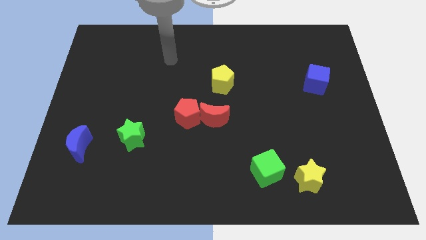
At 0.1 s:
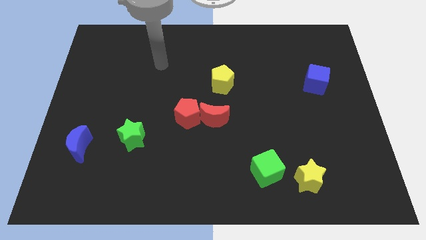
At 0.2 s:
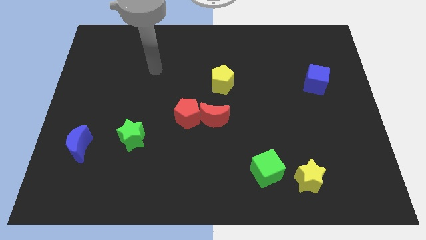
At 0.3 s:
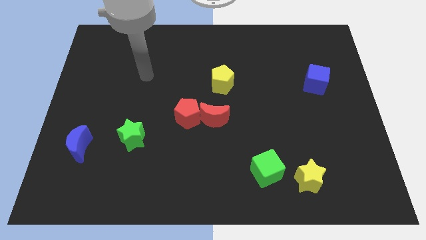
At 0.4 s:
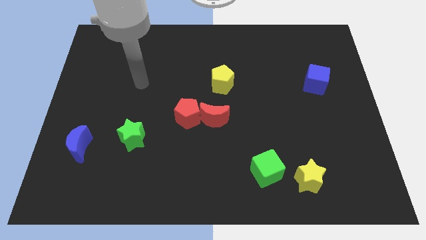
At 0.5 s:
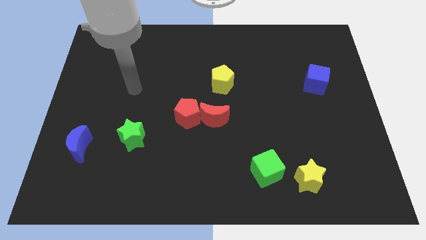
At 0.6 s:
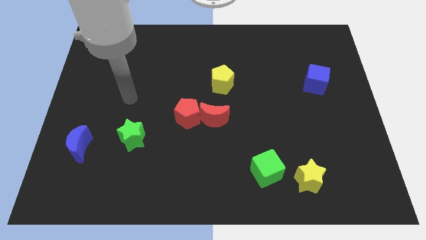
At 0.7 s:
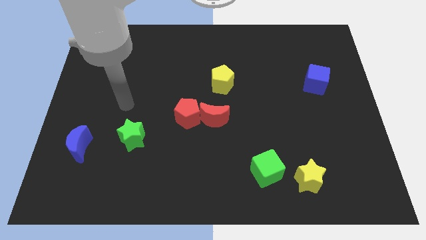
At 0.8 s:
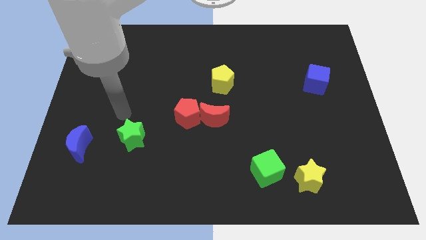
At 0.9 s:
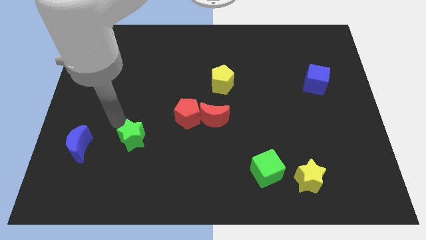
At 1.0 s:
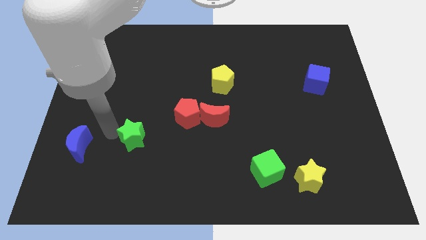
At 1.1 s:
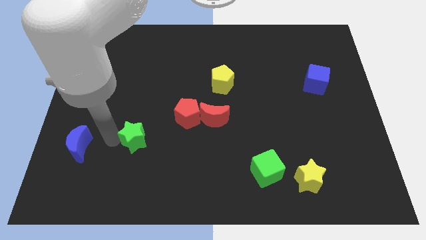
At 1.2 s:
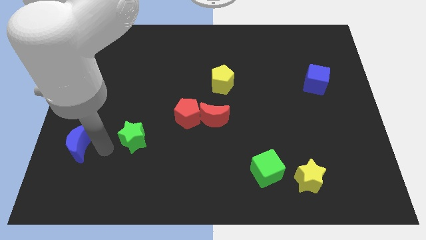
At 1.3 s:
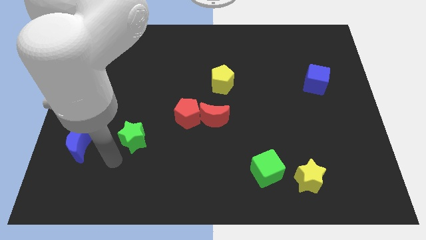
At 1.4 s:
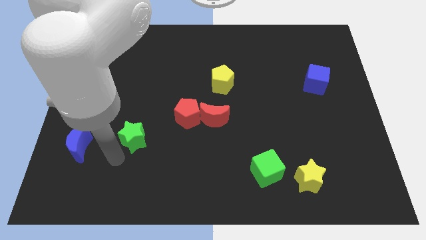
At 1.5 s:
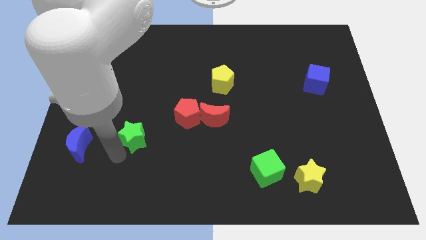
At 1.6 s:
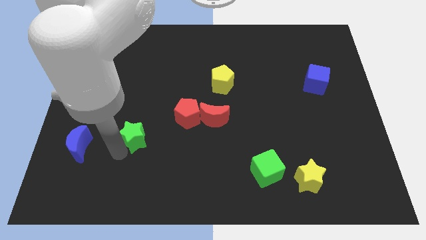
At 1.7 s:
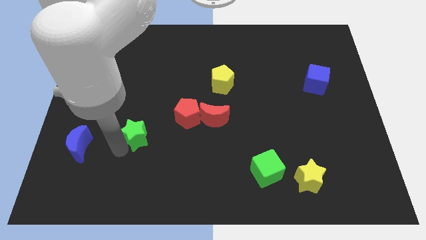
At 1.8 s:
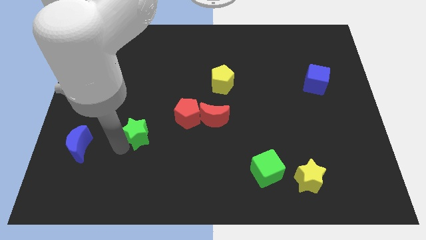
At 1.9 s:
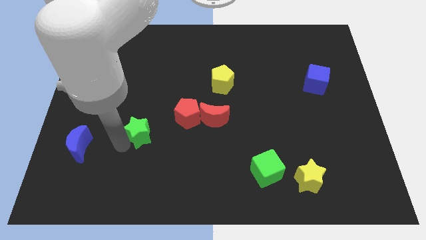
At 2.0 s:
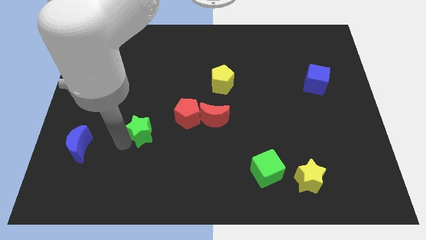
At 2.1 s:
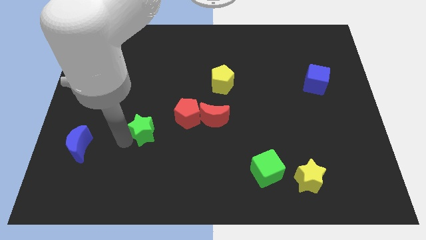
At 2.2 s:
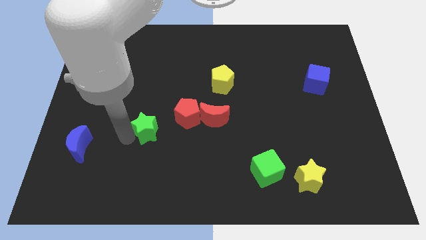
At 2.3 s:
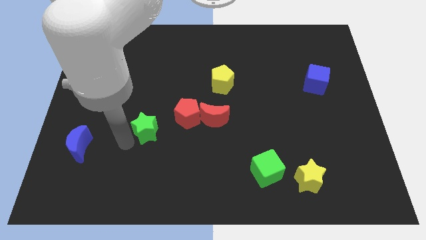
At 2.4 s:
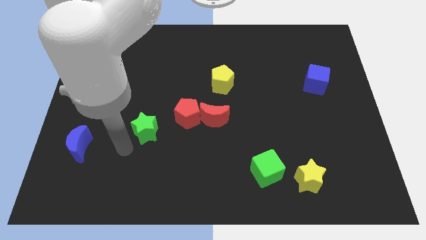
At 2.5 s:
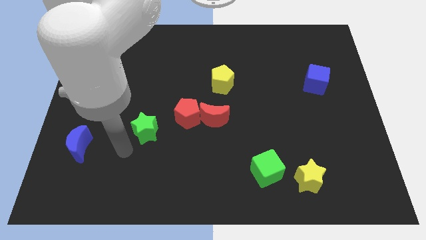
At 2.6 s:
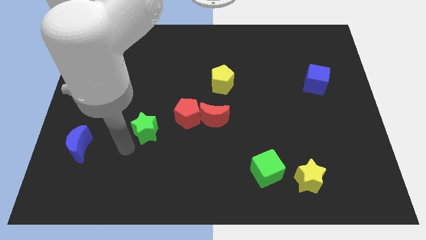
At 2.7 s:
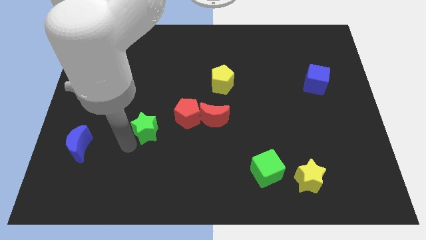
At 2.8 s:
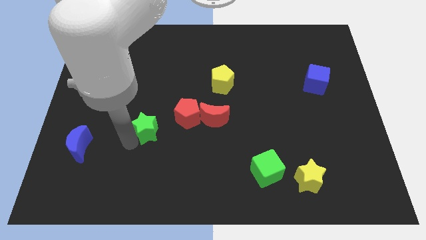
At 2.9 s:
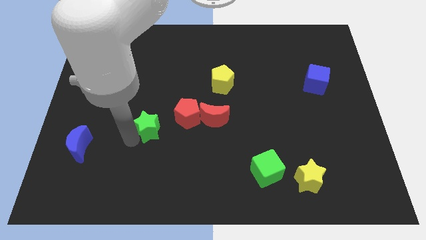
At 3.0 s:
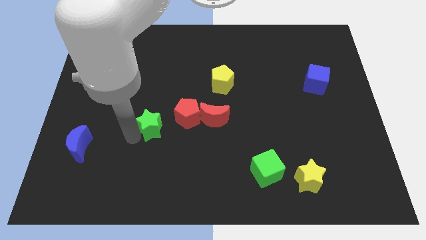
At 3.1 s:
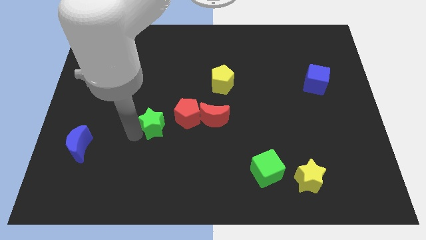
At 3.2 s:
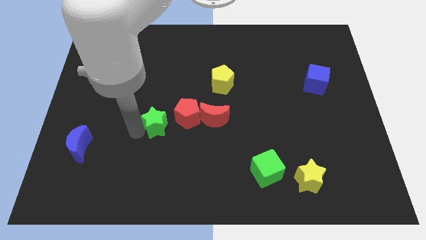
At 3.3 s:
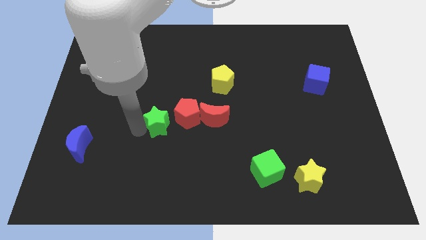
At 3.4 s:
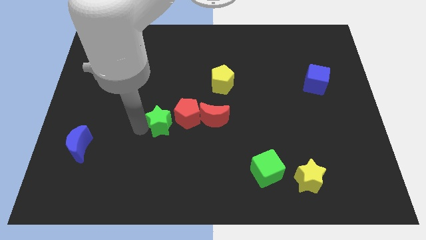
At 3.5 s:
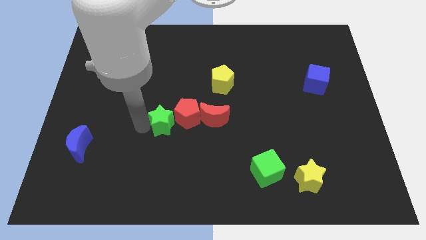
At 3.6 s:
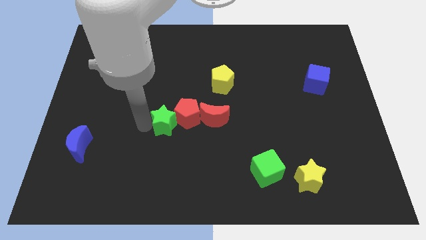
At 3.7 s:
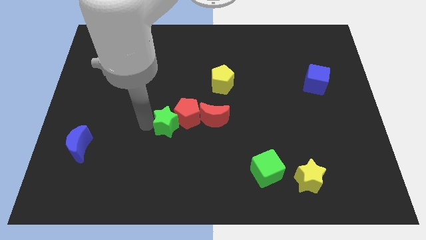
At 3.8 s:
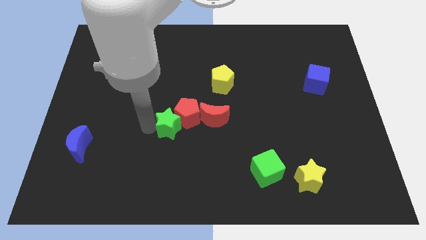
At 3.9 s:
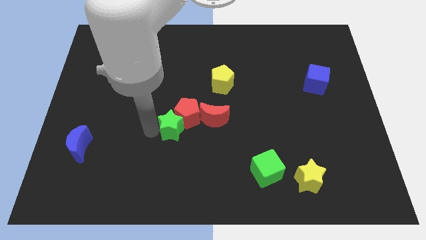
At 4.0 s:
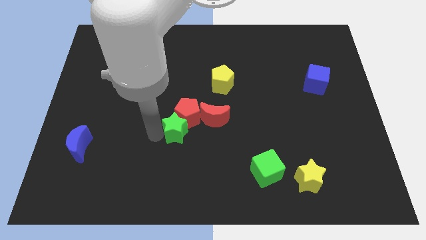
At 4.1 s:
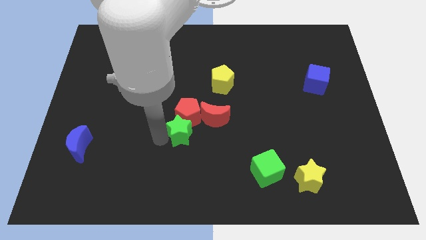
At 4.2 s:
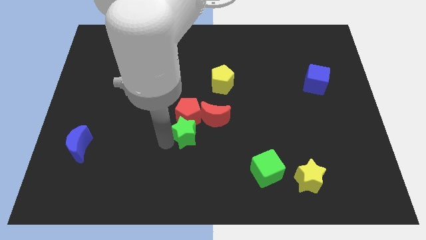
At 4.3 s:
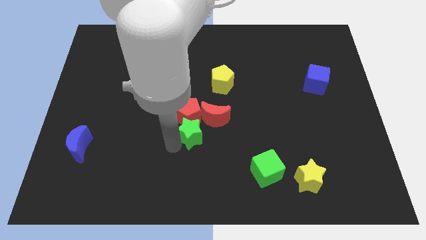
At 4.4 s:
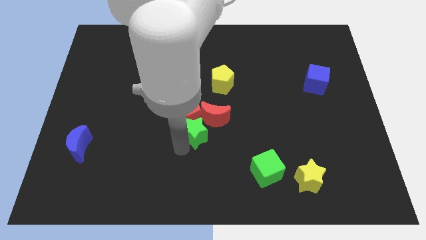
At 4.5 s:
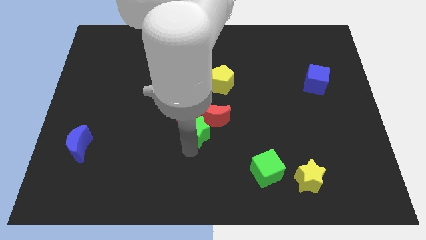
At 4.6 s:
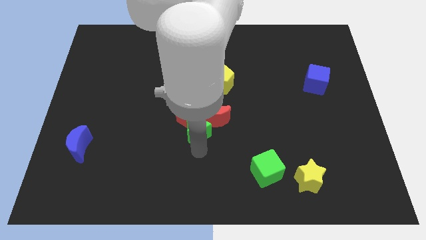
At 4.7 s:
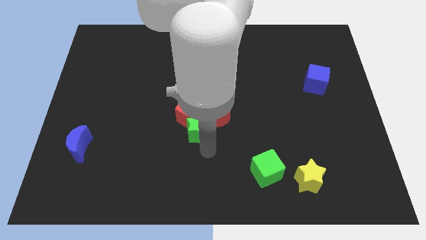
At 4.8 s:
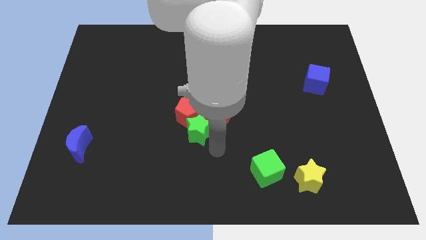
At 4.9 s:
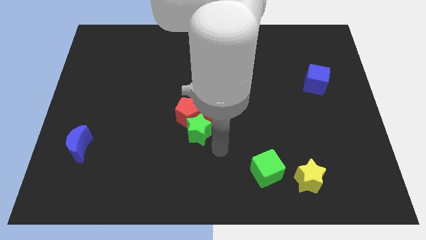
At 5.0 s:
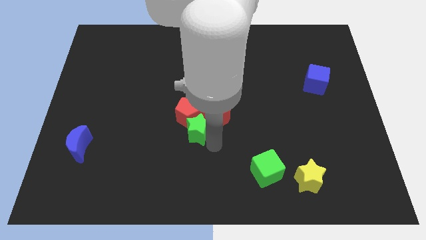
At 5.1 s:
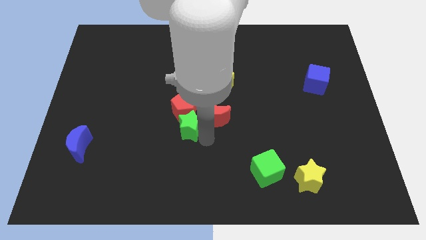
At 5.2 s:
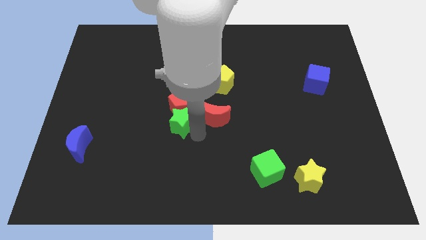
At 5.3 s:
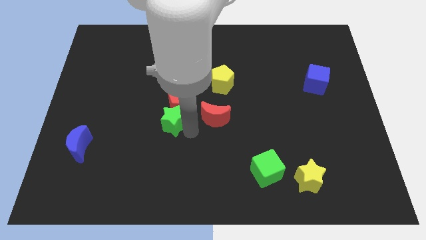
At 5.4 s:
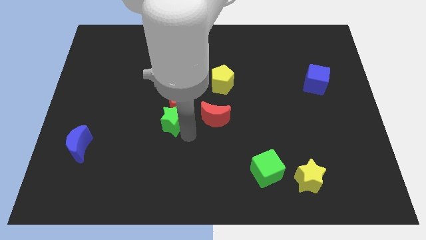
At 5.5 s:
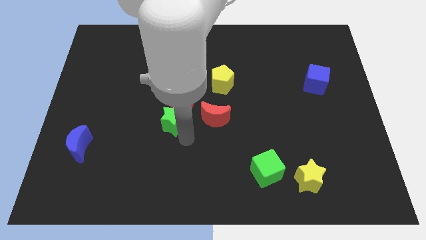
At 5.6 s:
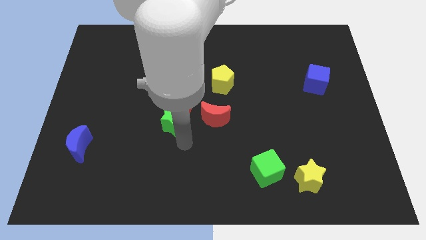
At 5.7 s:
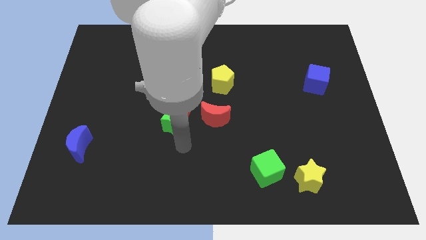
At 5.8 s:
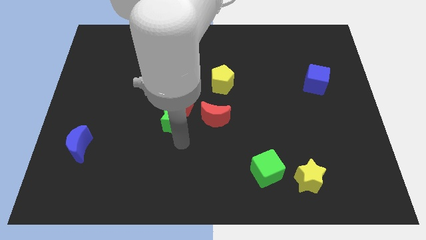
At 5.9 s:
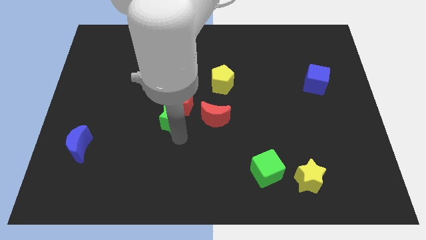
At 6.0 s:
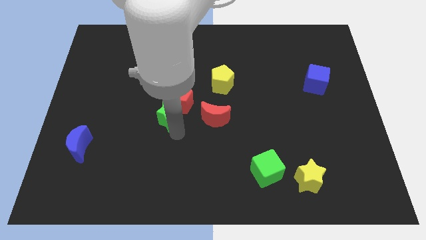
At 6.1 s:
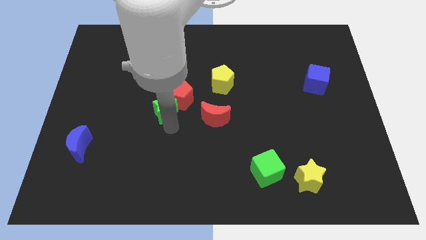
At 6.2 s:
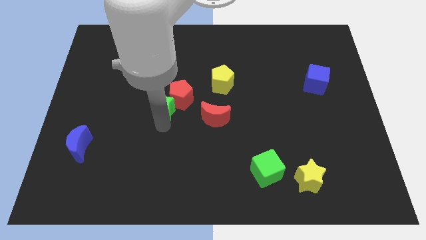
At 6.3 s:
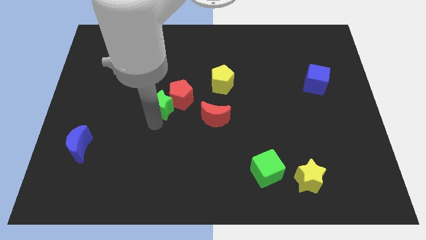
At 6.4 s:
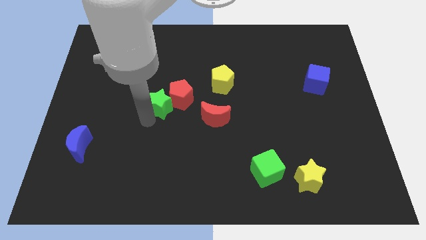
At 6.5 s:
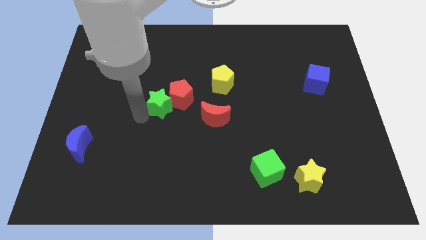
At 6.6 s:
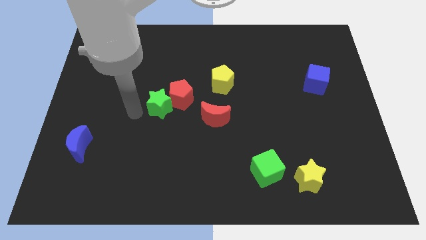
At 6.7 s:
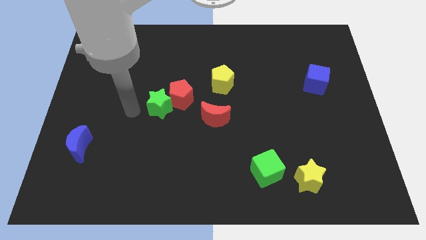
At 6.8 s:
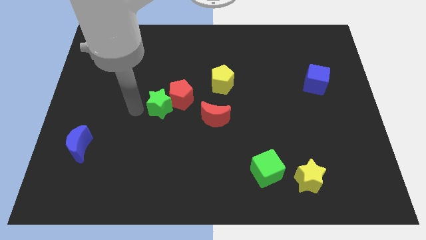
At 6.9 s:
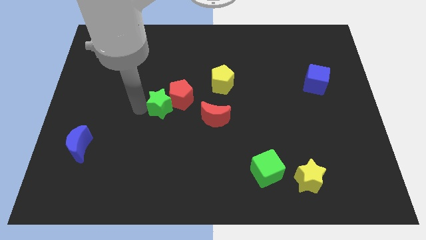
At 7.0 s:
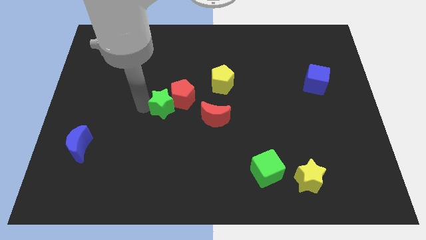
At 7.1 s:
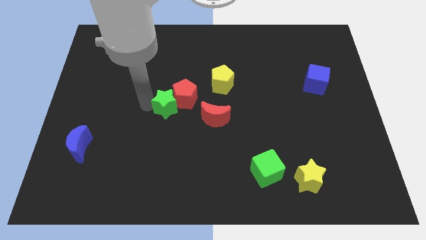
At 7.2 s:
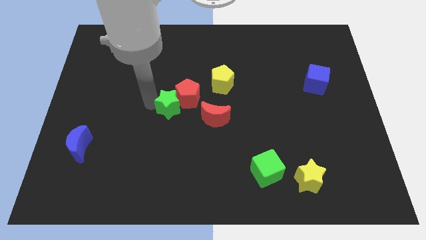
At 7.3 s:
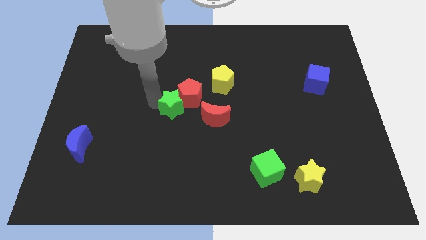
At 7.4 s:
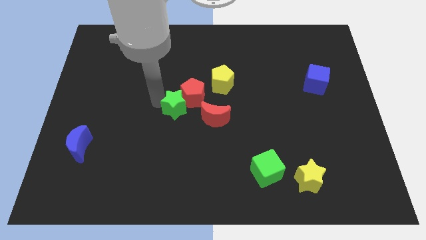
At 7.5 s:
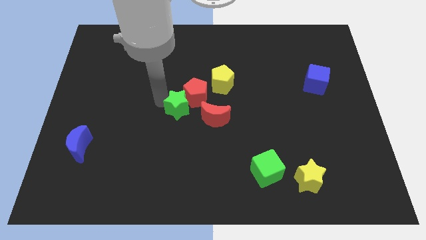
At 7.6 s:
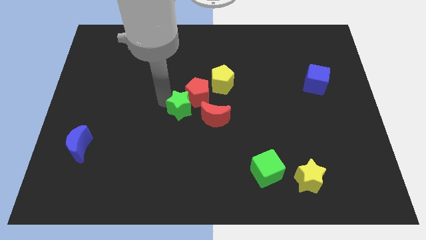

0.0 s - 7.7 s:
put the green star to the bottom left side of the yellow pentagon
